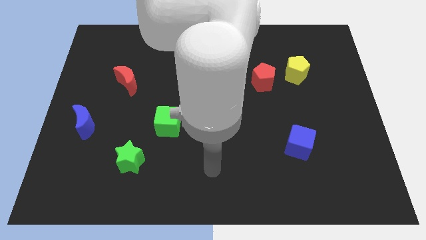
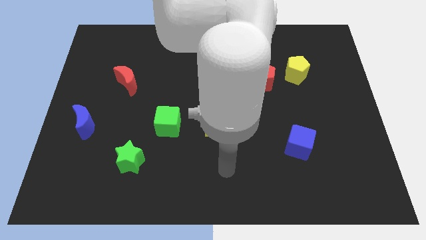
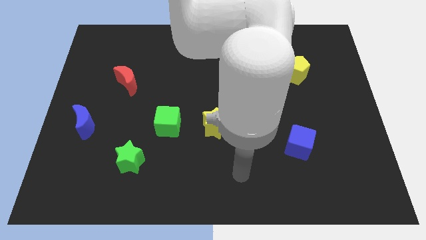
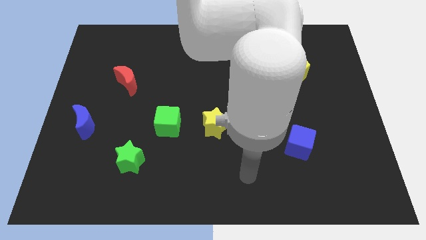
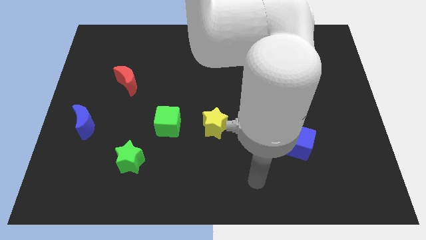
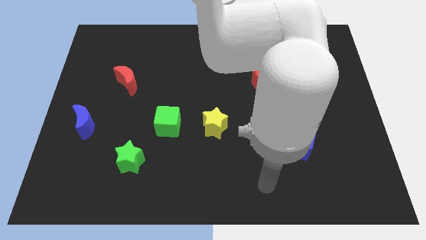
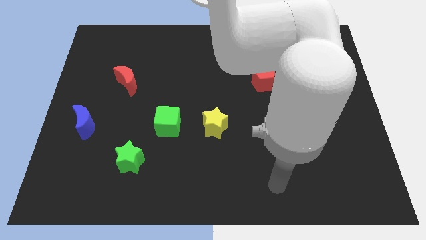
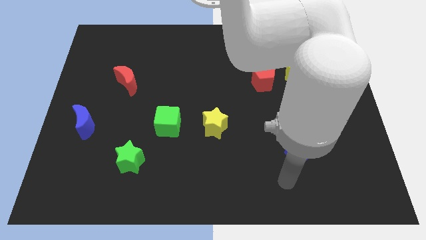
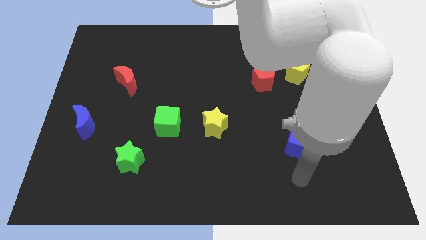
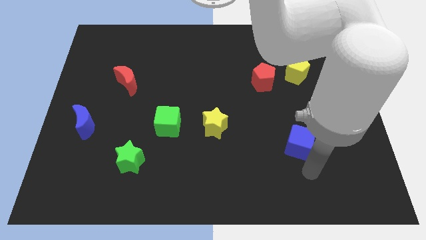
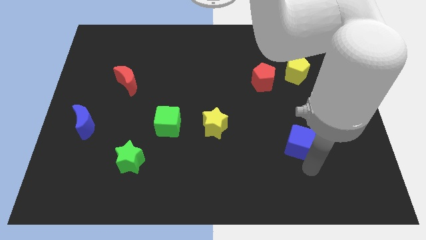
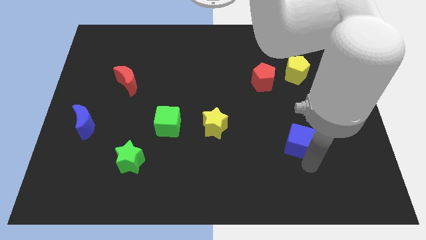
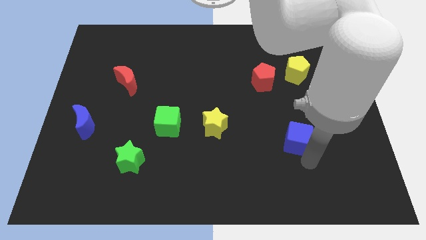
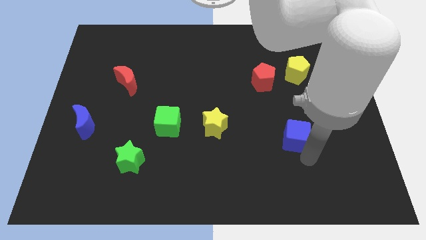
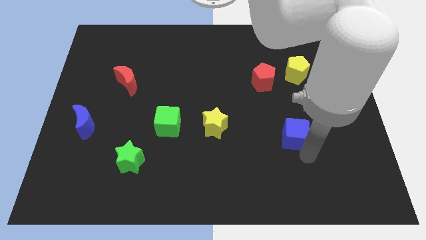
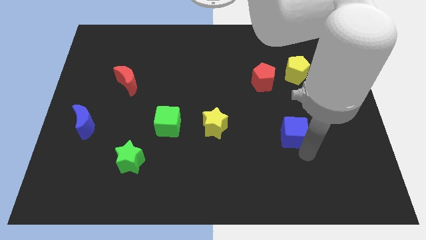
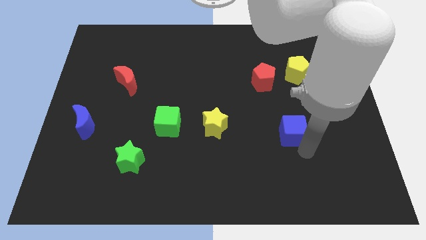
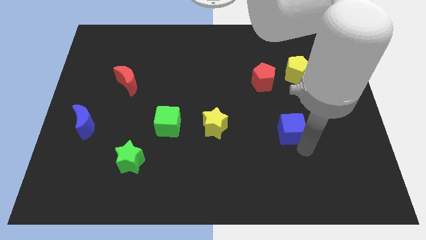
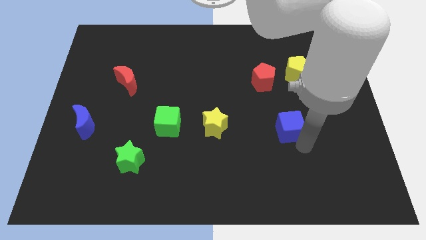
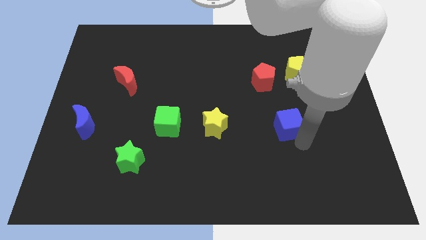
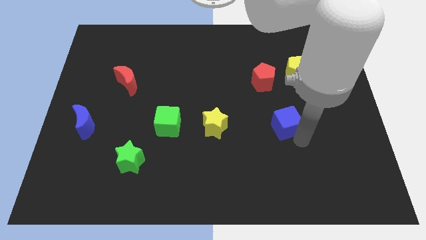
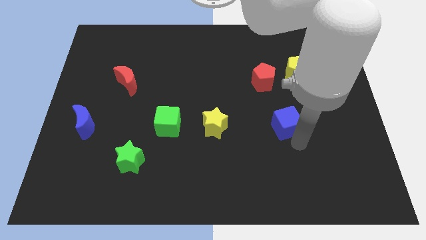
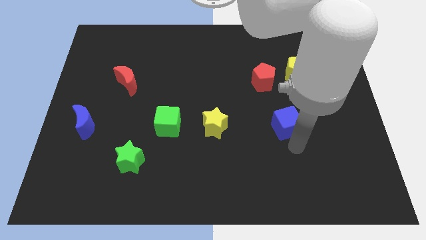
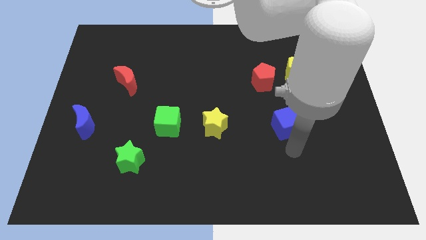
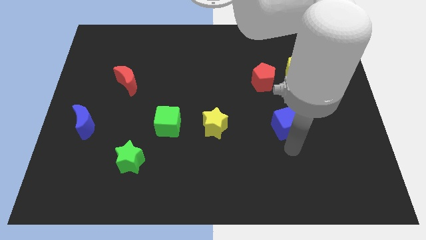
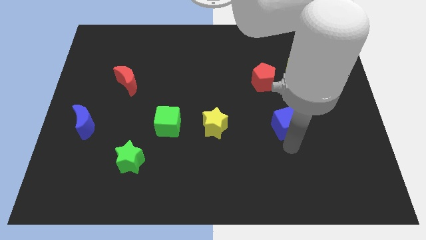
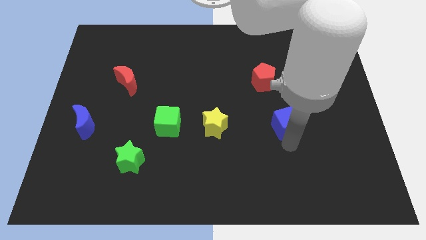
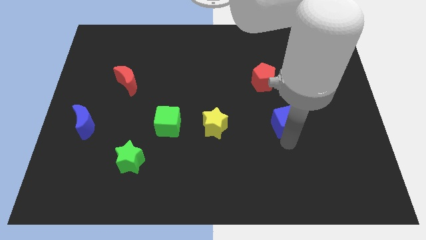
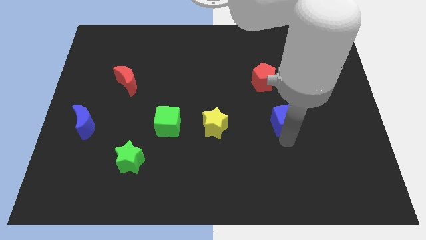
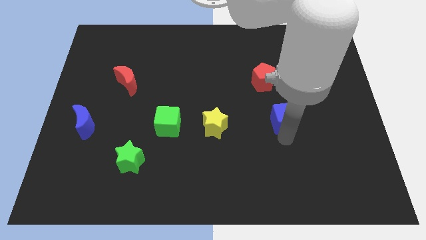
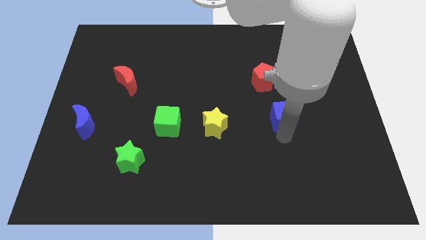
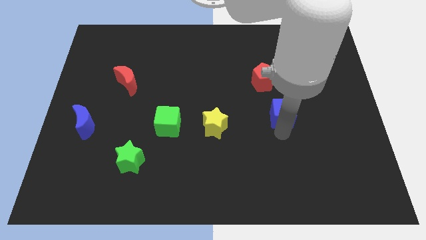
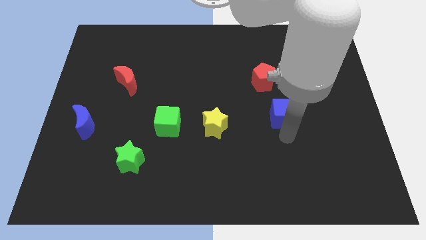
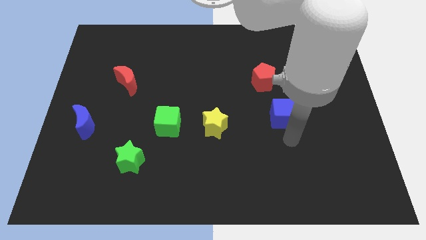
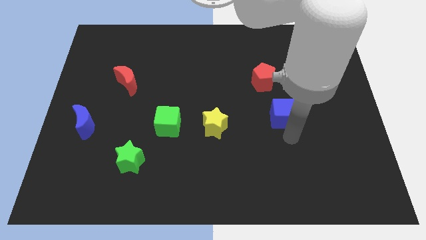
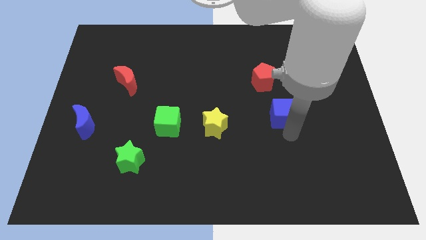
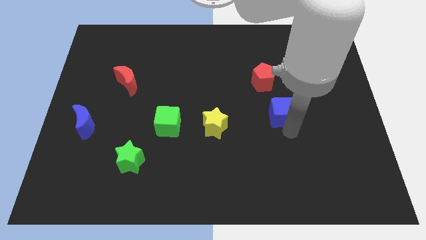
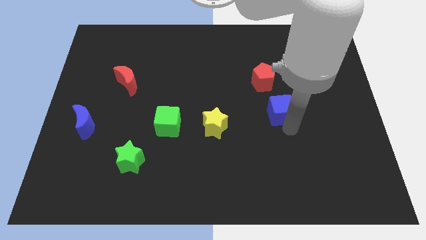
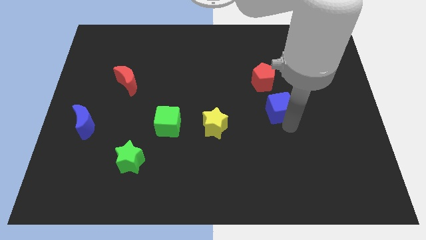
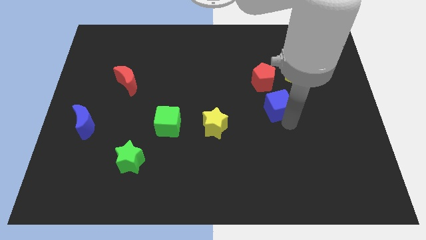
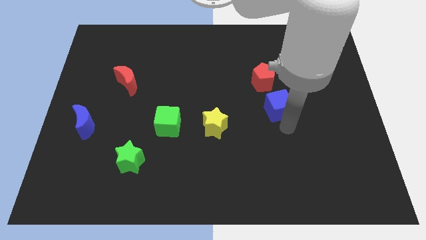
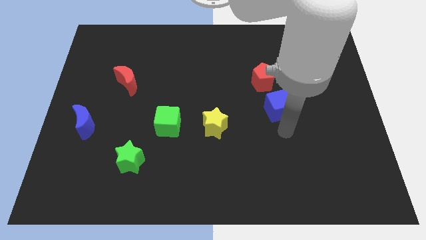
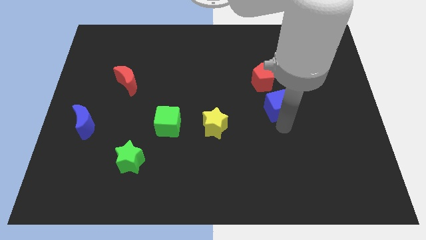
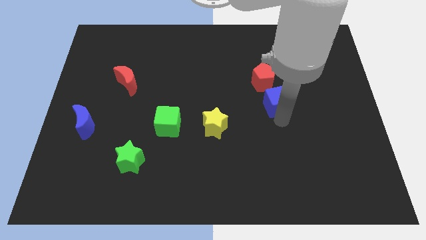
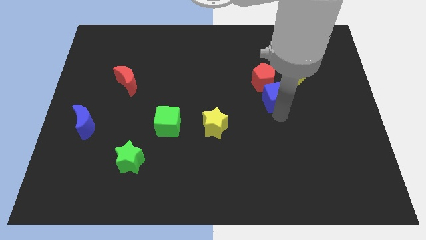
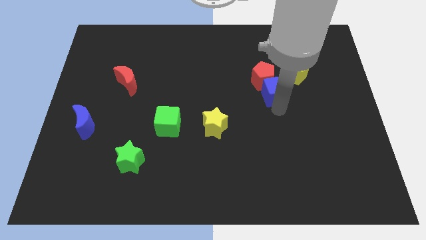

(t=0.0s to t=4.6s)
slide the blue cube towards the red pentagon

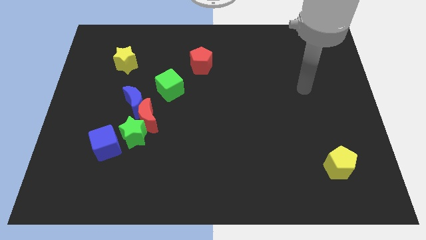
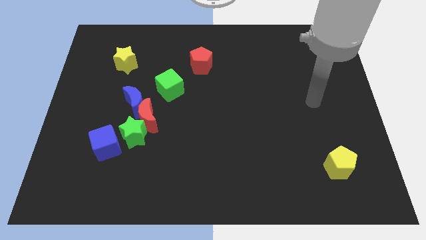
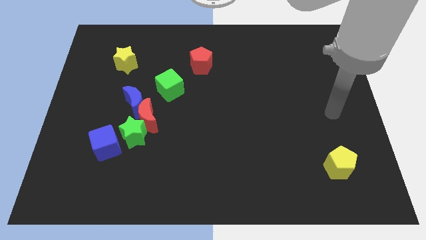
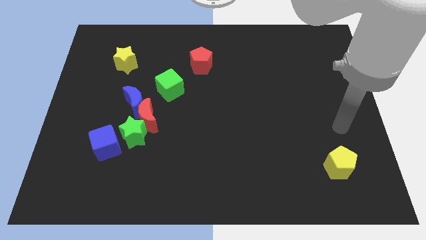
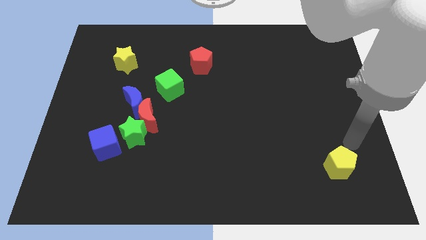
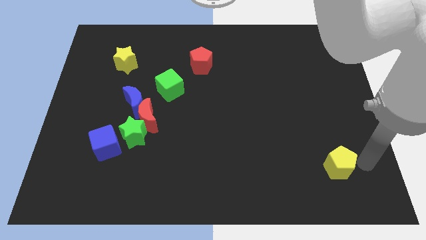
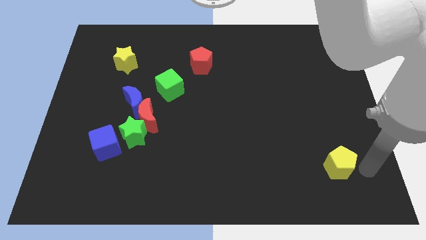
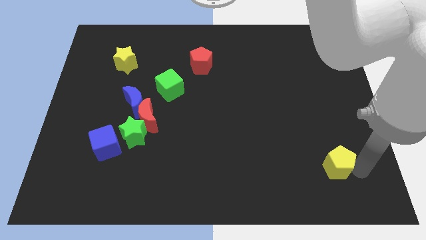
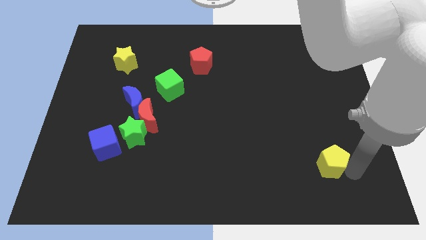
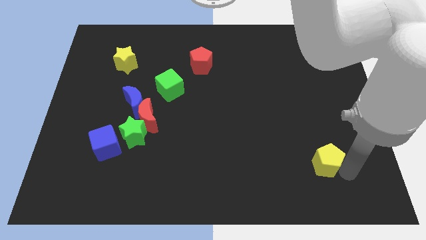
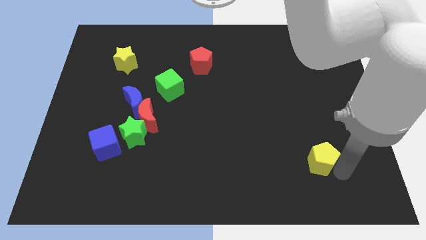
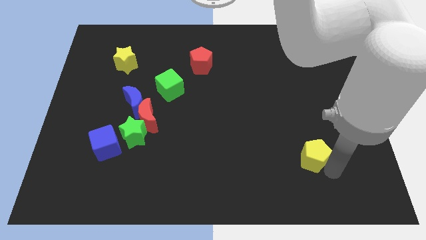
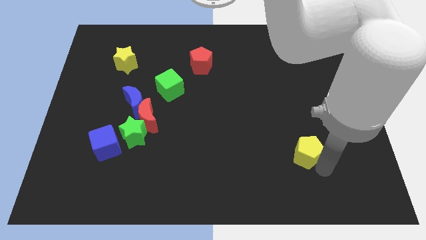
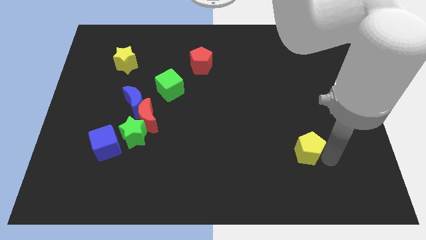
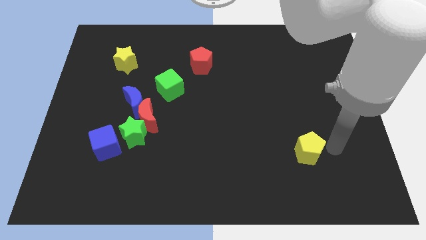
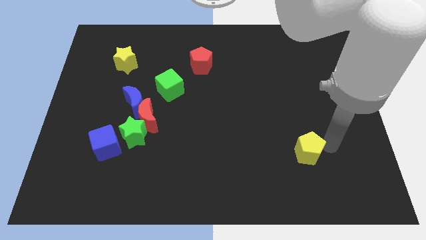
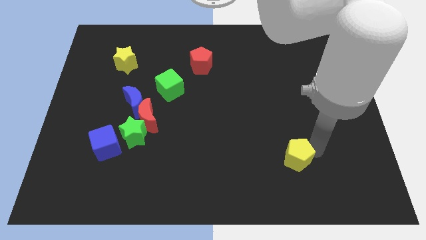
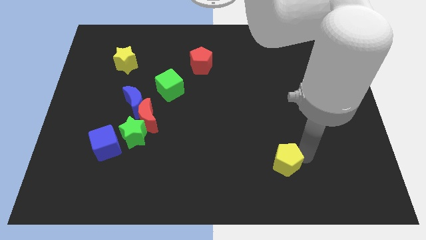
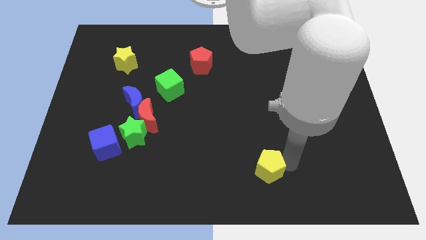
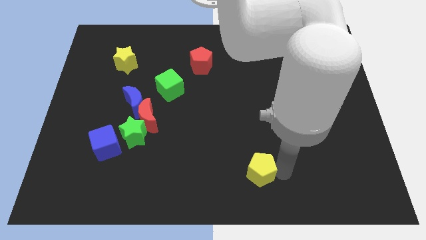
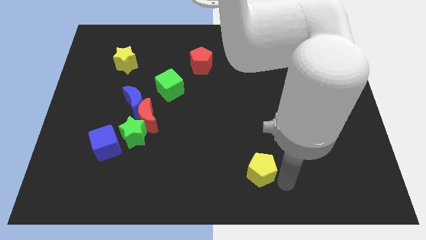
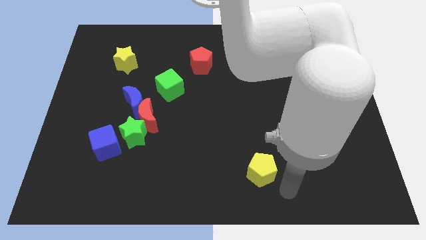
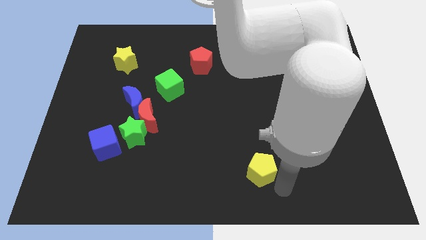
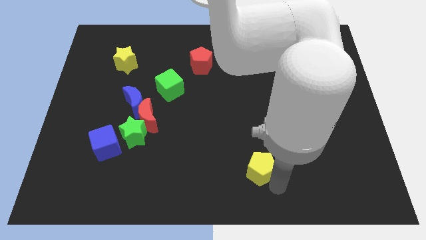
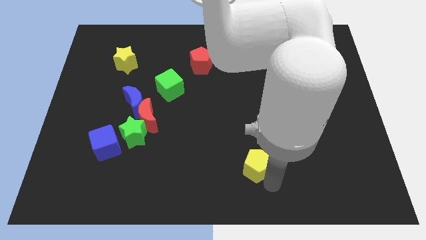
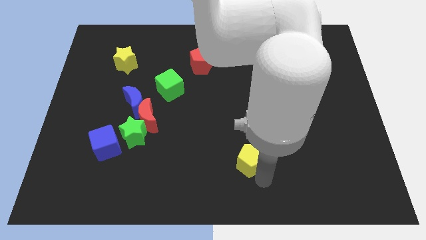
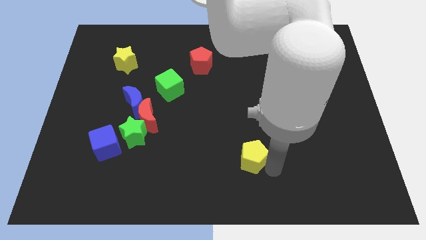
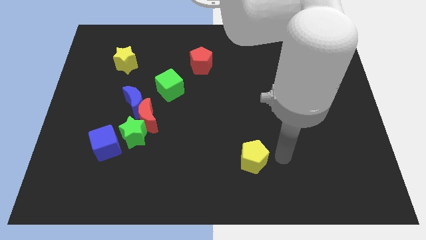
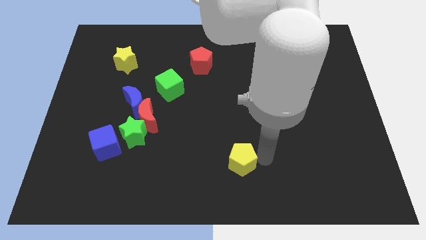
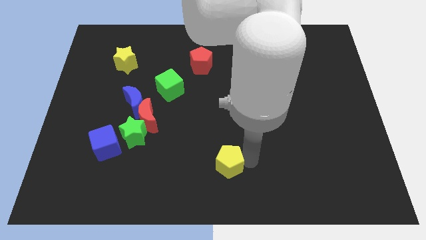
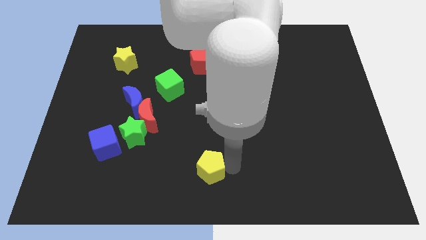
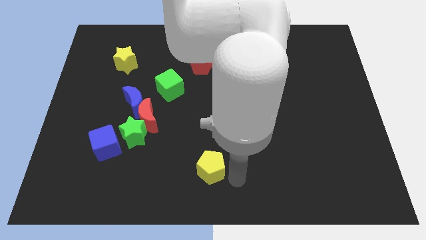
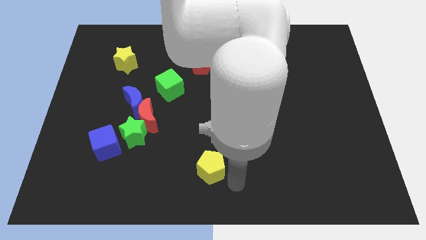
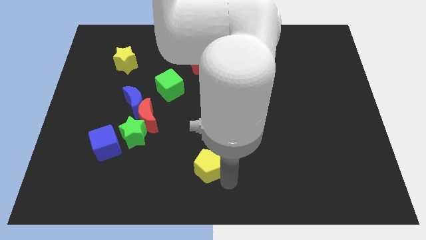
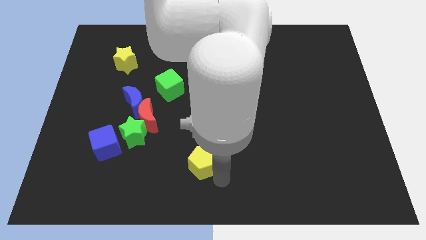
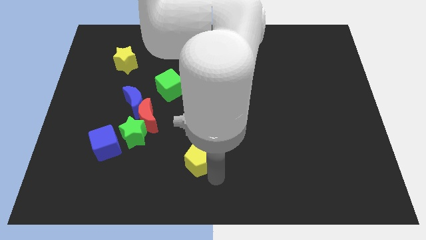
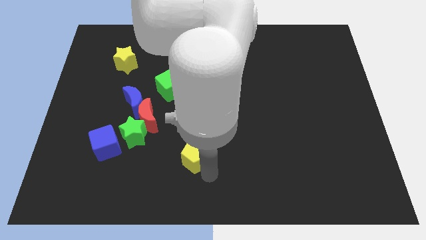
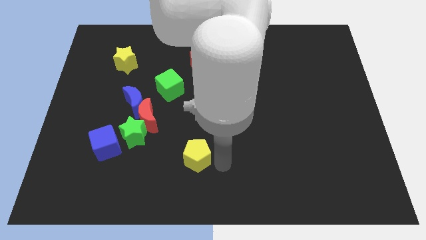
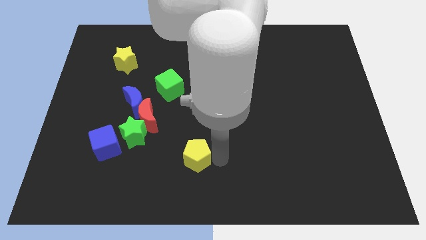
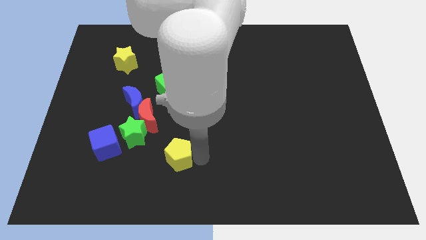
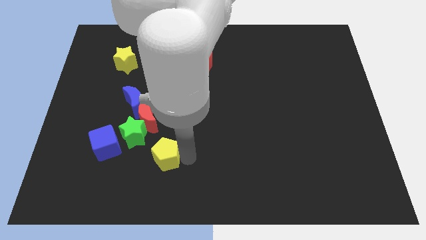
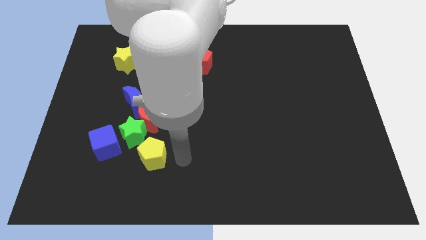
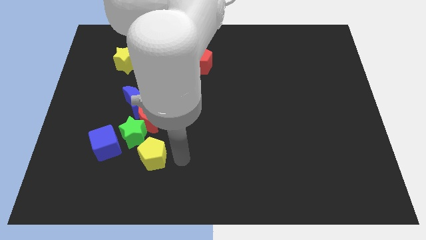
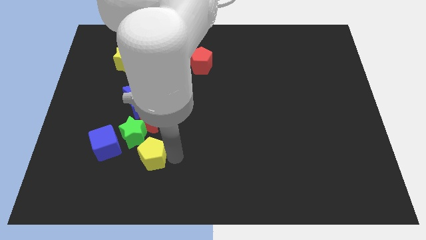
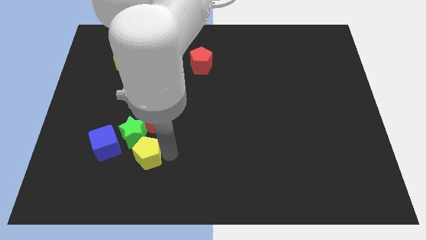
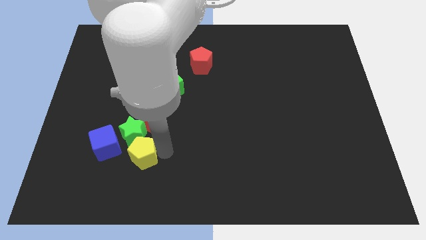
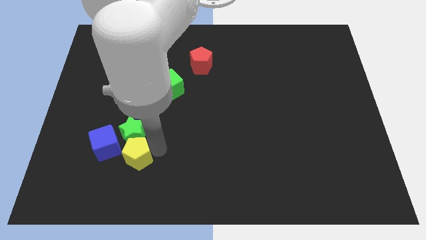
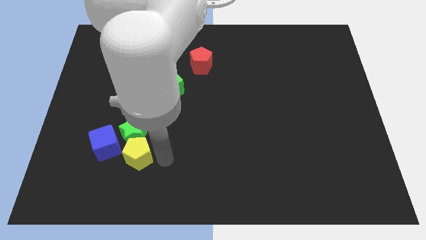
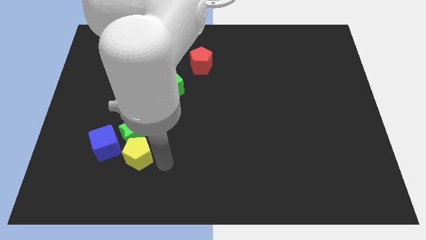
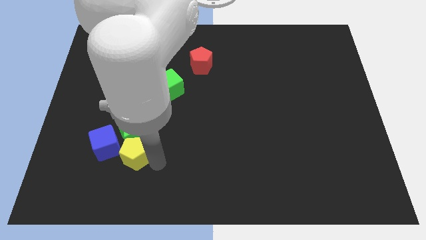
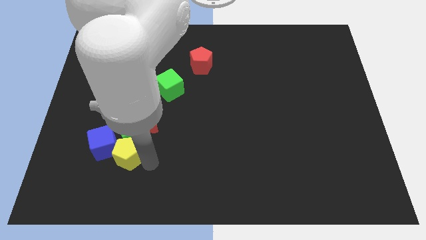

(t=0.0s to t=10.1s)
move the yellow pentagon towards the blue cube
